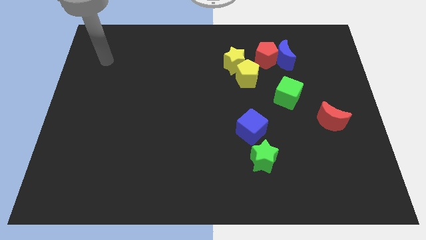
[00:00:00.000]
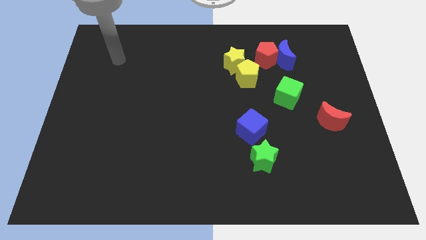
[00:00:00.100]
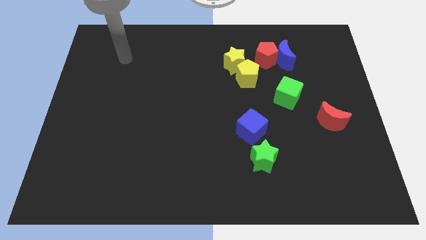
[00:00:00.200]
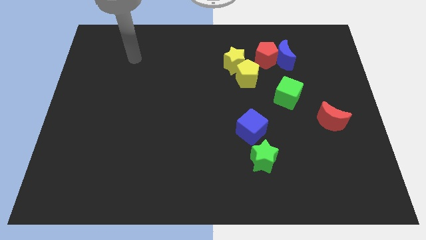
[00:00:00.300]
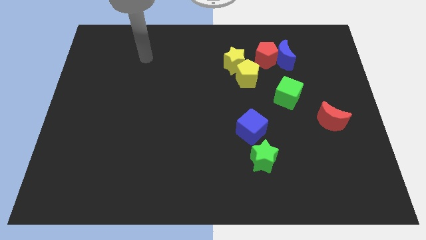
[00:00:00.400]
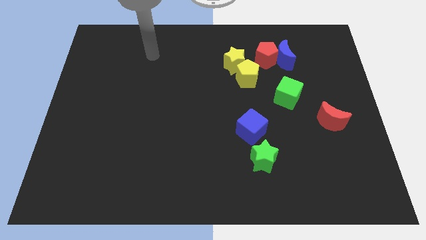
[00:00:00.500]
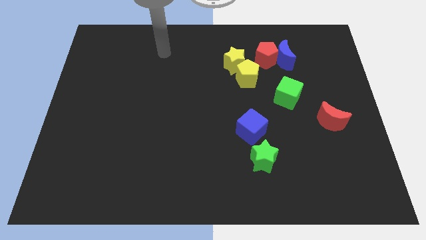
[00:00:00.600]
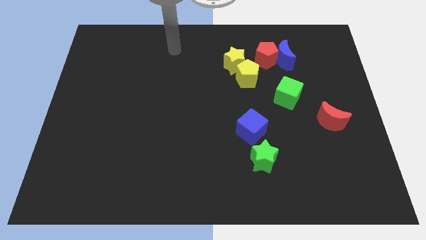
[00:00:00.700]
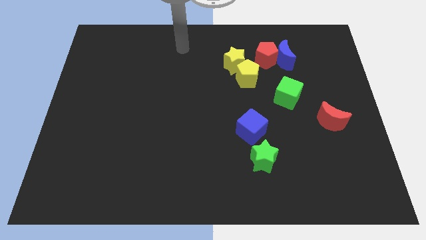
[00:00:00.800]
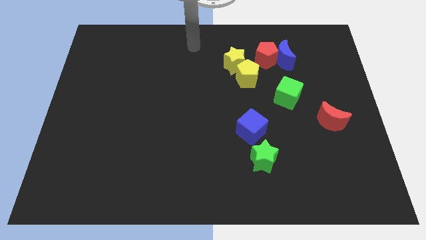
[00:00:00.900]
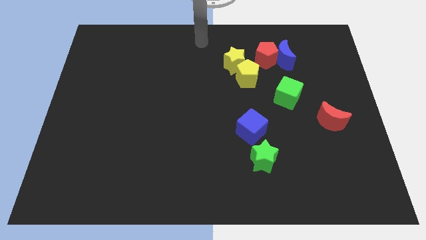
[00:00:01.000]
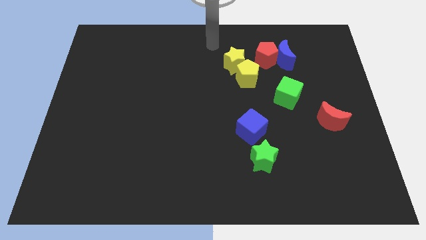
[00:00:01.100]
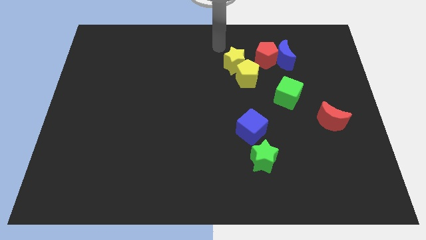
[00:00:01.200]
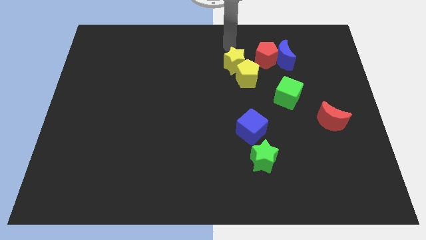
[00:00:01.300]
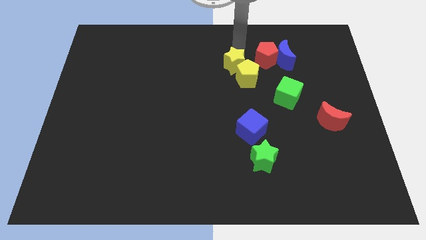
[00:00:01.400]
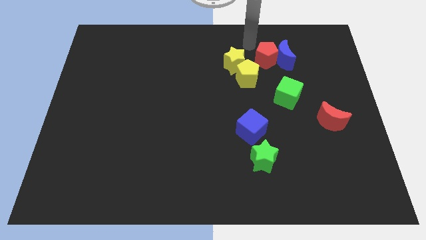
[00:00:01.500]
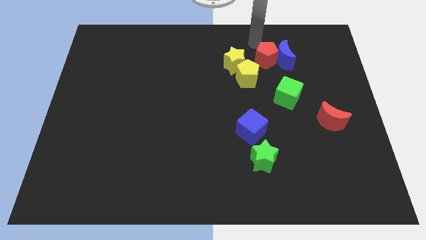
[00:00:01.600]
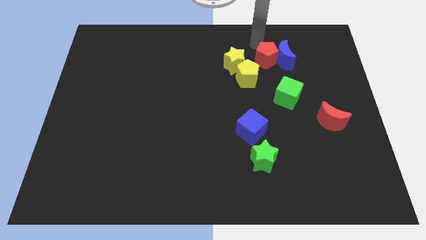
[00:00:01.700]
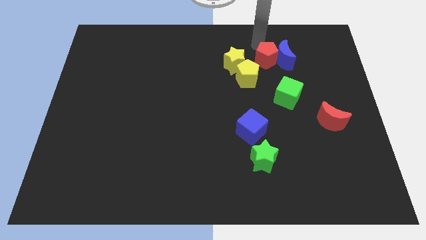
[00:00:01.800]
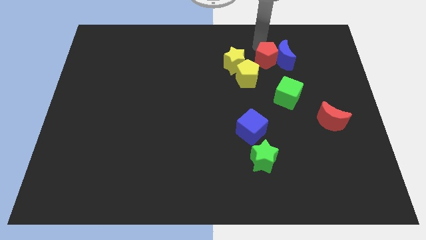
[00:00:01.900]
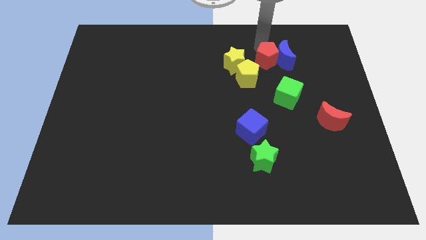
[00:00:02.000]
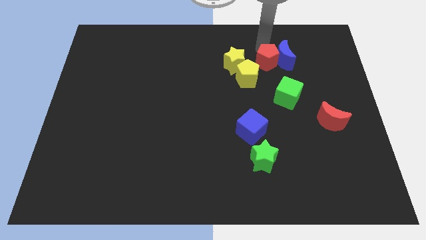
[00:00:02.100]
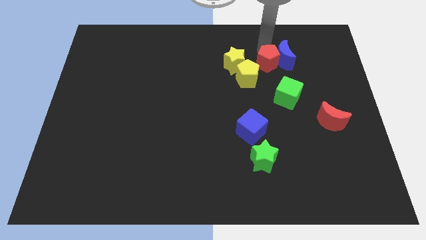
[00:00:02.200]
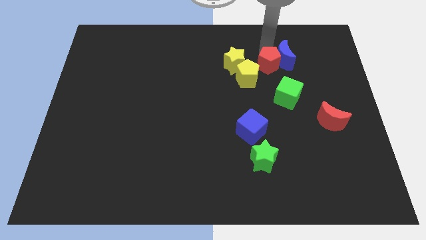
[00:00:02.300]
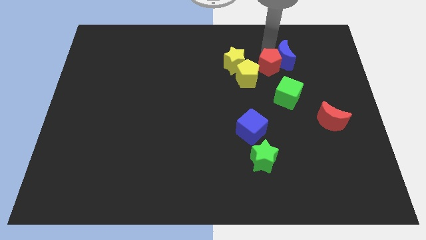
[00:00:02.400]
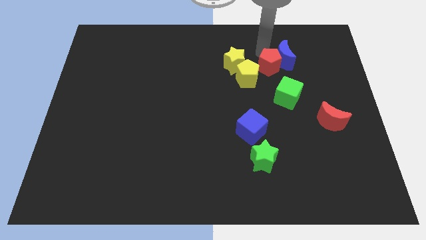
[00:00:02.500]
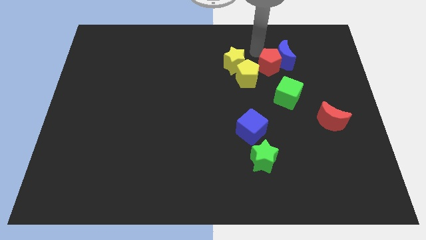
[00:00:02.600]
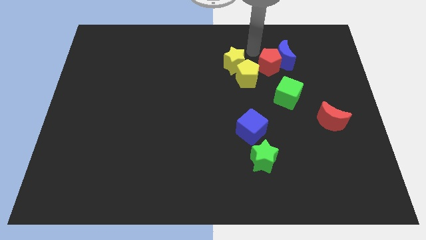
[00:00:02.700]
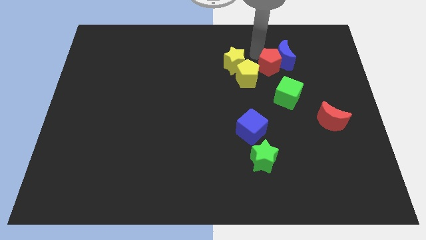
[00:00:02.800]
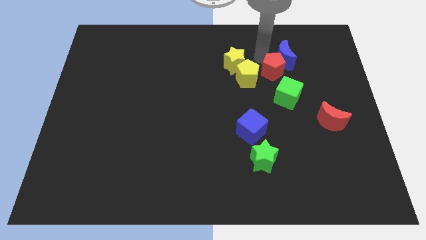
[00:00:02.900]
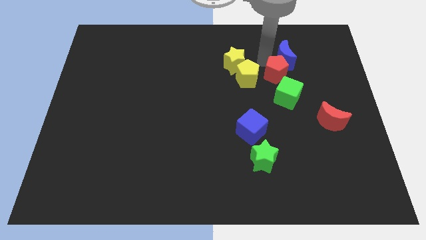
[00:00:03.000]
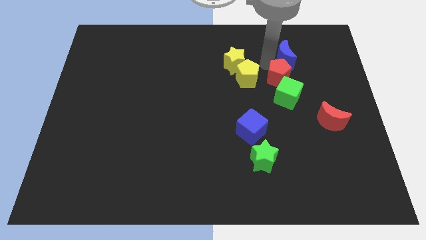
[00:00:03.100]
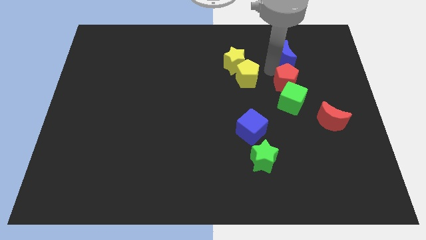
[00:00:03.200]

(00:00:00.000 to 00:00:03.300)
move the red pentagon downwards and right slightly

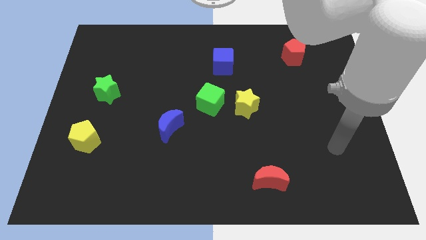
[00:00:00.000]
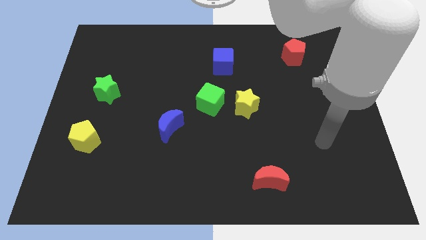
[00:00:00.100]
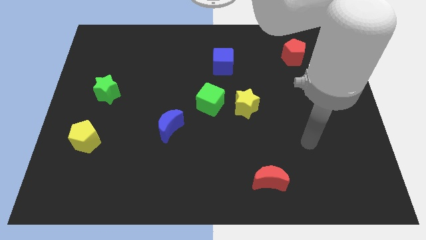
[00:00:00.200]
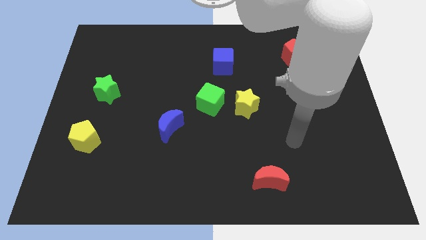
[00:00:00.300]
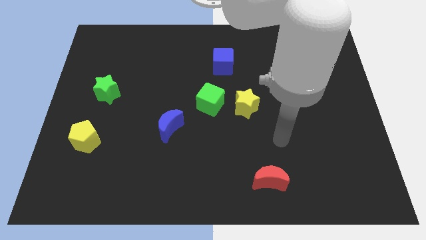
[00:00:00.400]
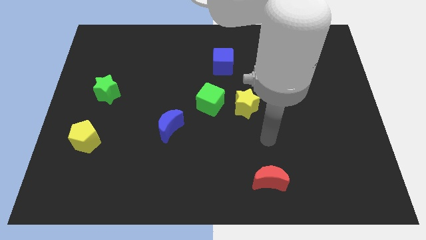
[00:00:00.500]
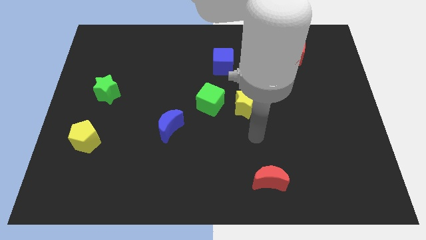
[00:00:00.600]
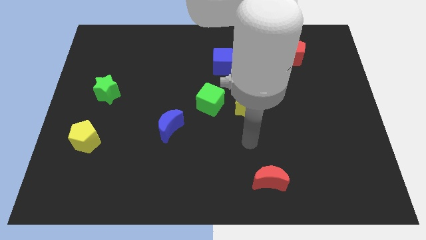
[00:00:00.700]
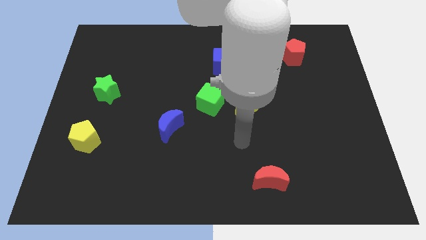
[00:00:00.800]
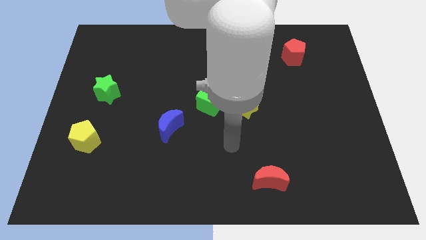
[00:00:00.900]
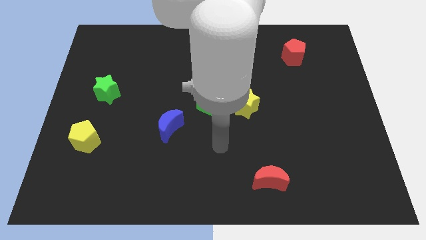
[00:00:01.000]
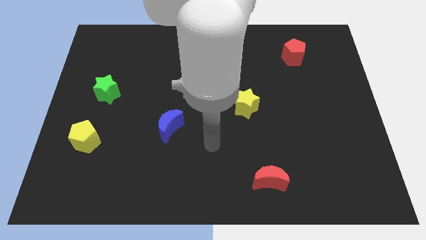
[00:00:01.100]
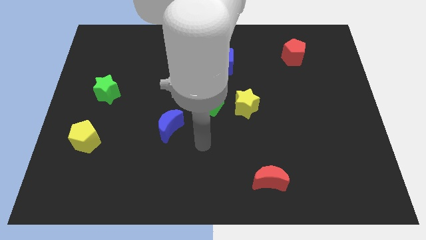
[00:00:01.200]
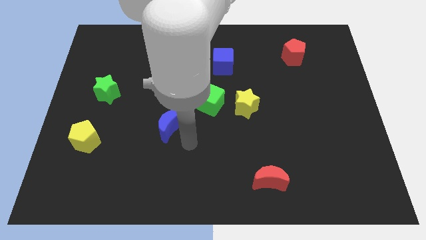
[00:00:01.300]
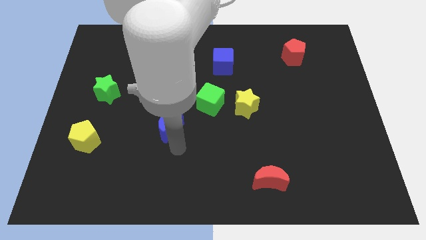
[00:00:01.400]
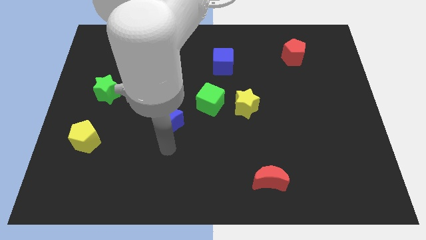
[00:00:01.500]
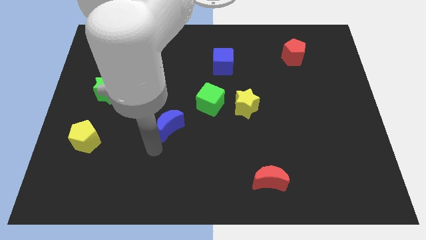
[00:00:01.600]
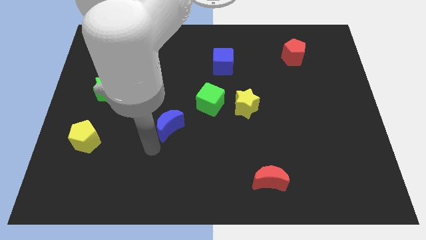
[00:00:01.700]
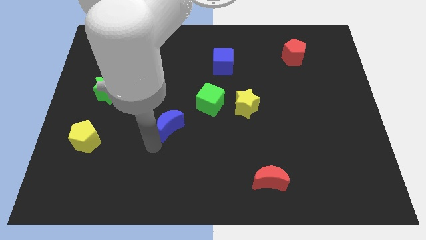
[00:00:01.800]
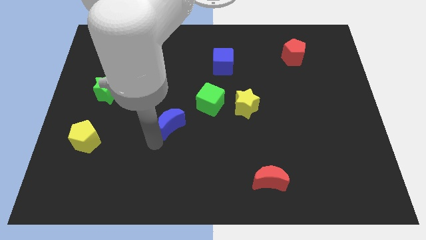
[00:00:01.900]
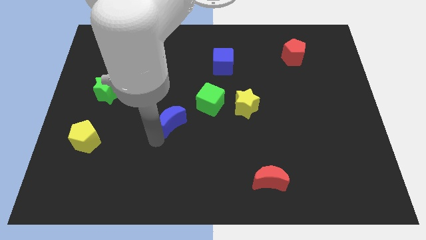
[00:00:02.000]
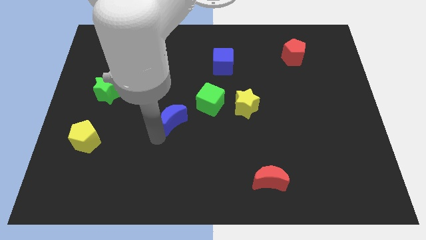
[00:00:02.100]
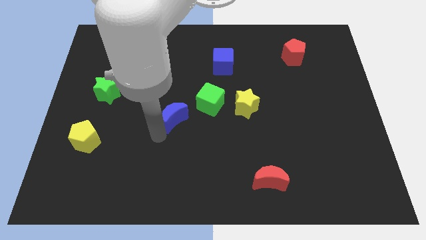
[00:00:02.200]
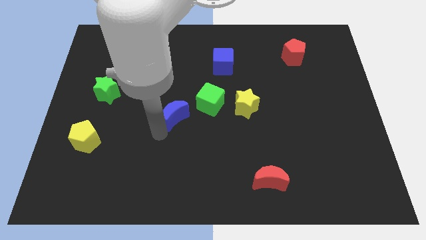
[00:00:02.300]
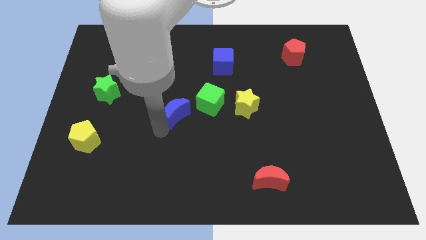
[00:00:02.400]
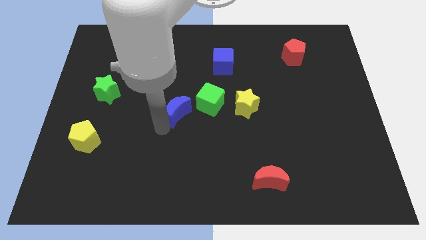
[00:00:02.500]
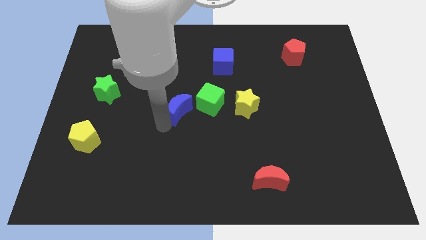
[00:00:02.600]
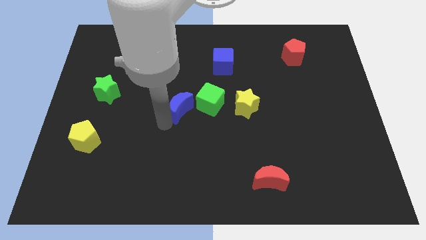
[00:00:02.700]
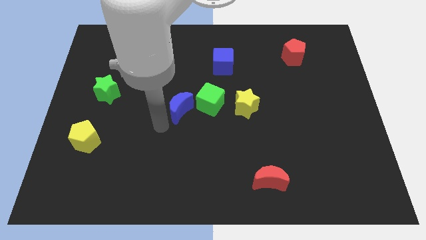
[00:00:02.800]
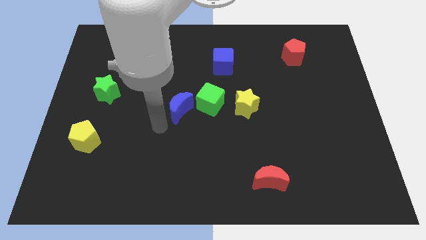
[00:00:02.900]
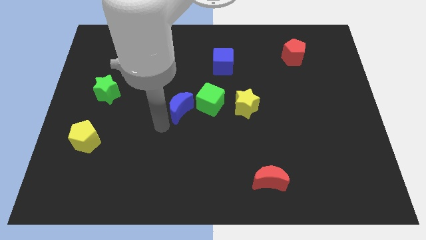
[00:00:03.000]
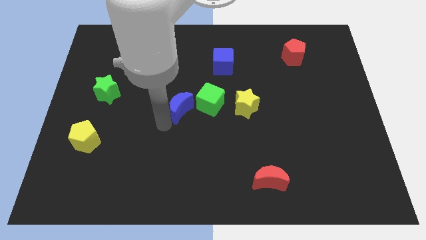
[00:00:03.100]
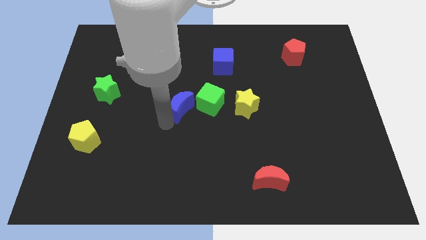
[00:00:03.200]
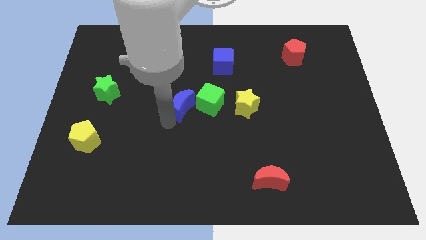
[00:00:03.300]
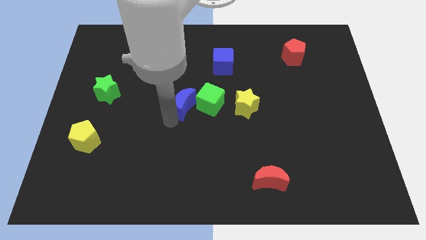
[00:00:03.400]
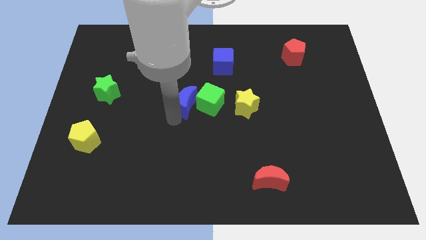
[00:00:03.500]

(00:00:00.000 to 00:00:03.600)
move the blue moon a little bit up and to the right diagonally

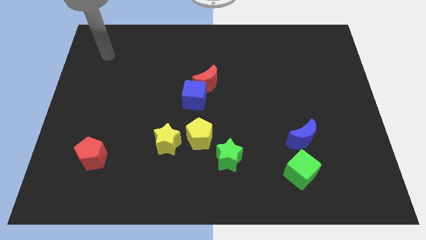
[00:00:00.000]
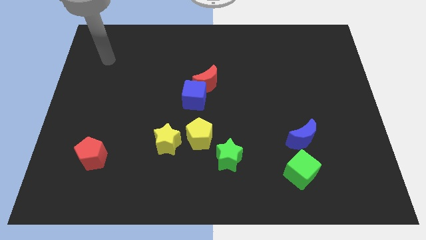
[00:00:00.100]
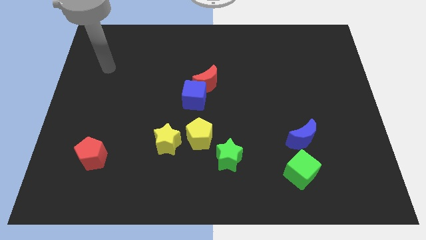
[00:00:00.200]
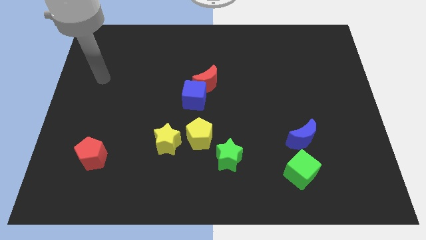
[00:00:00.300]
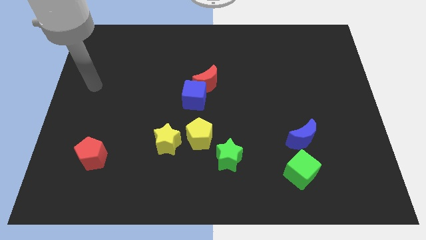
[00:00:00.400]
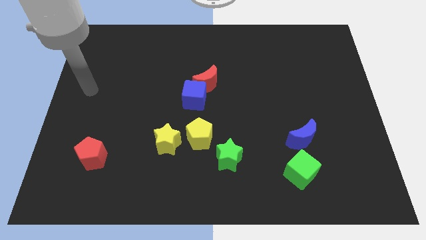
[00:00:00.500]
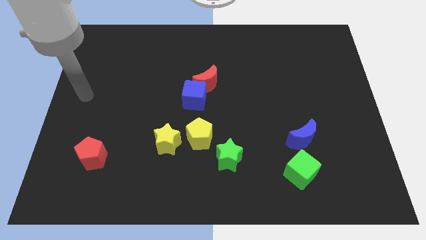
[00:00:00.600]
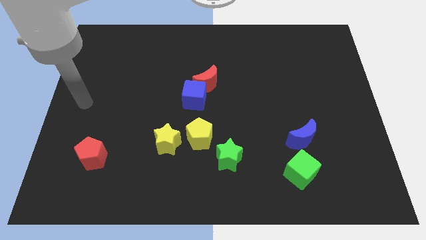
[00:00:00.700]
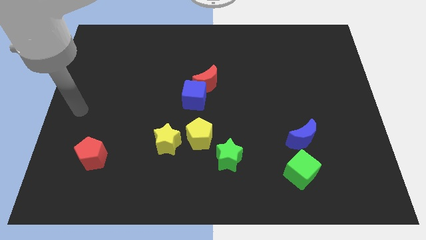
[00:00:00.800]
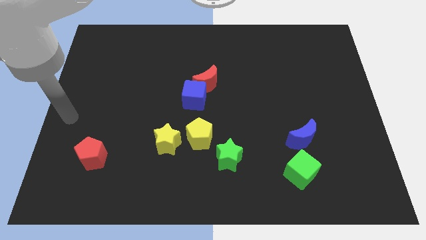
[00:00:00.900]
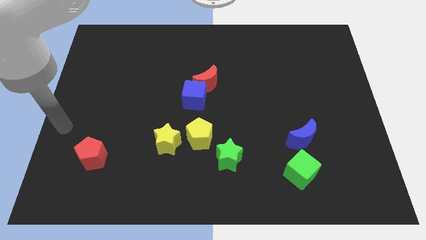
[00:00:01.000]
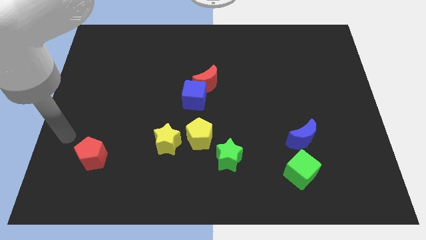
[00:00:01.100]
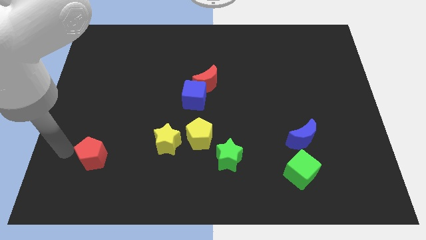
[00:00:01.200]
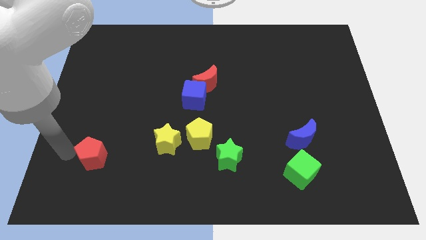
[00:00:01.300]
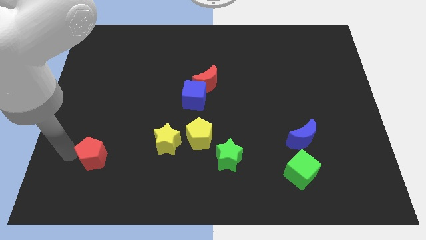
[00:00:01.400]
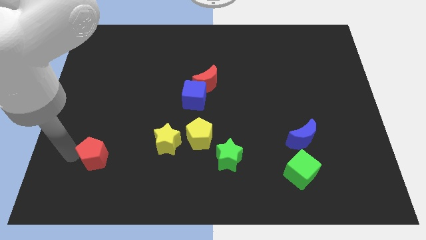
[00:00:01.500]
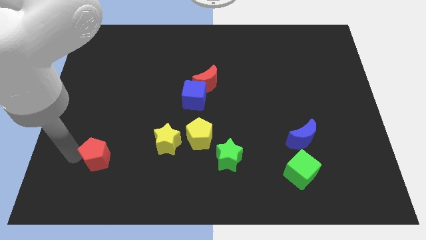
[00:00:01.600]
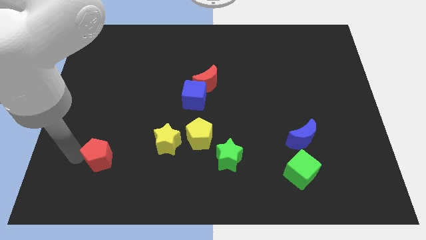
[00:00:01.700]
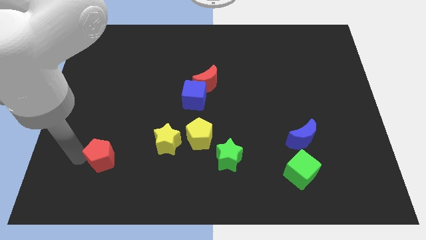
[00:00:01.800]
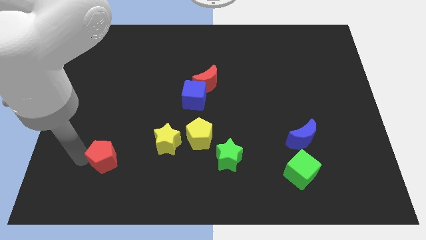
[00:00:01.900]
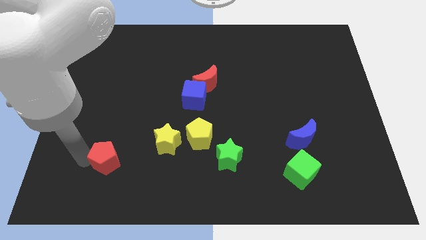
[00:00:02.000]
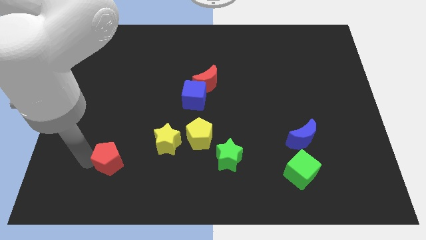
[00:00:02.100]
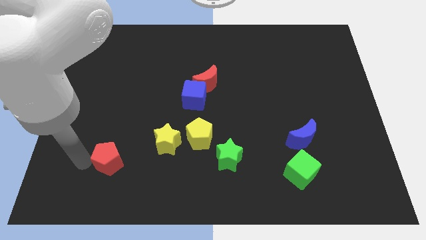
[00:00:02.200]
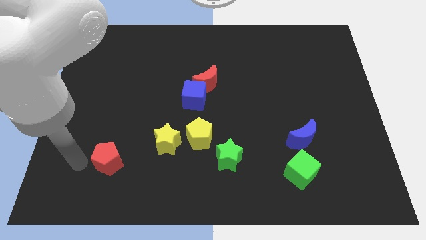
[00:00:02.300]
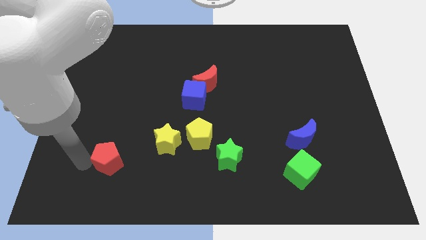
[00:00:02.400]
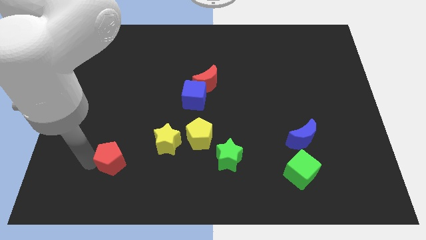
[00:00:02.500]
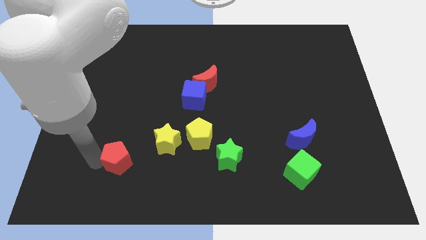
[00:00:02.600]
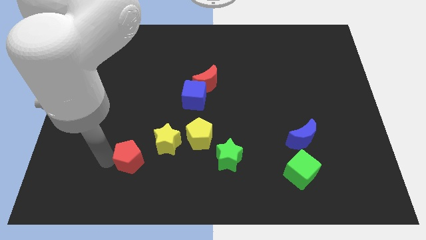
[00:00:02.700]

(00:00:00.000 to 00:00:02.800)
slide the red pentagon a little to the right
